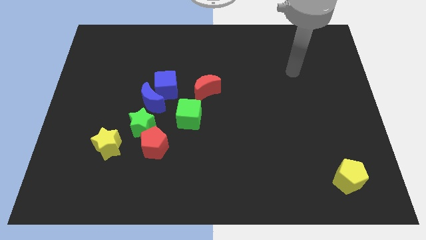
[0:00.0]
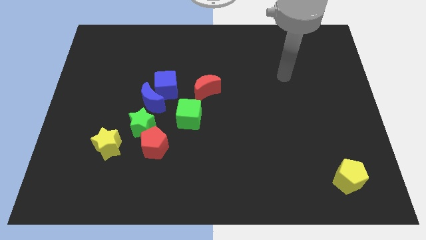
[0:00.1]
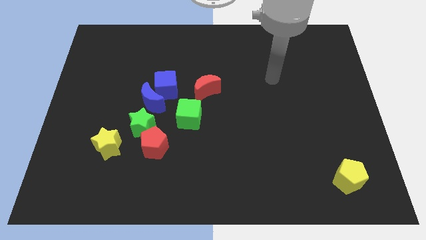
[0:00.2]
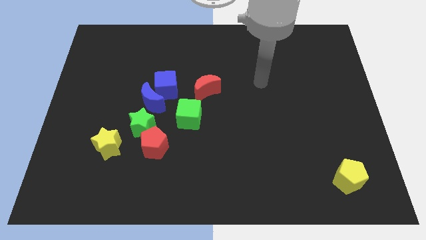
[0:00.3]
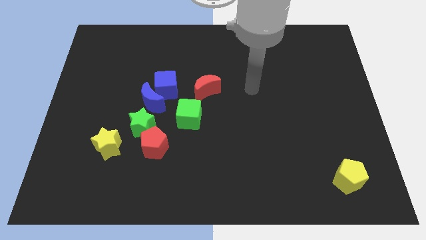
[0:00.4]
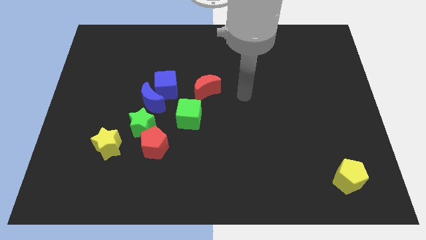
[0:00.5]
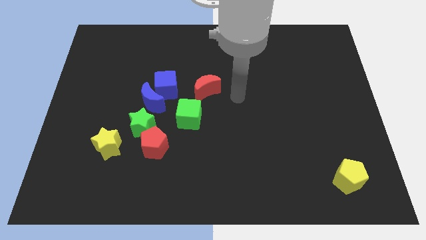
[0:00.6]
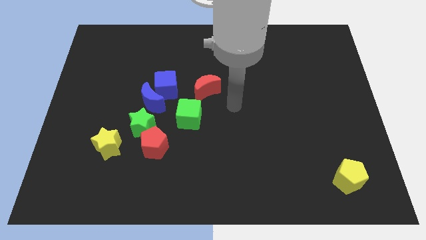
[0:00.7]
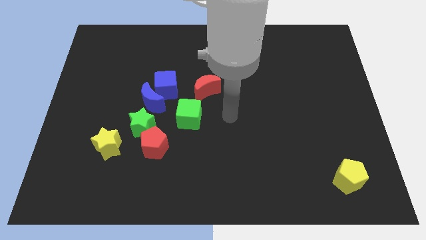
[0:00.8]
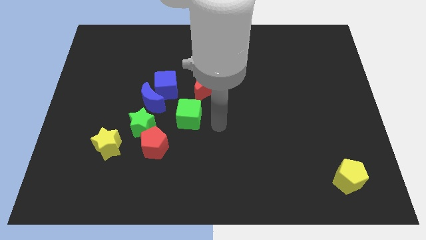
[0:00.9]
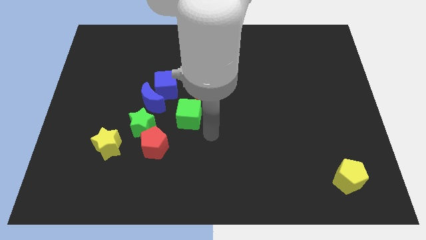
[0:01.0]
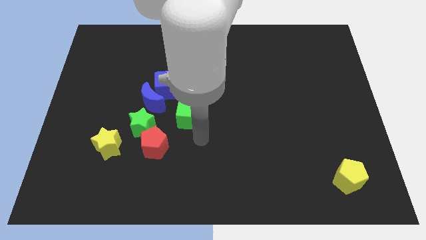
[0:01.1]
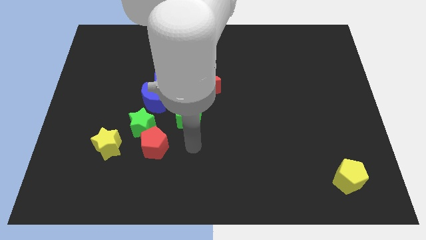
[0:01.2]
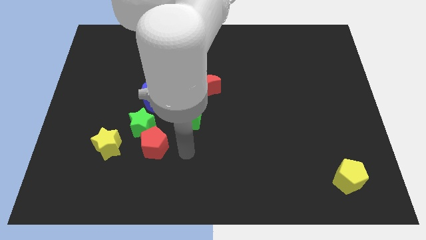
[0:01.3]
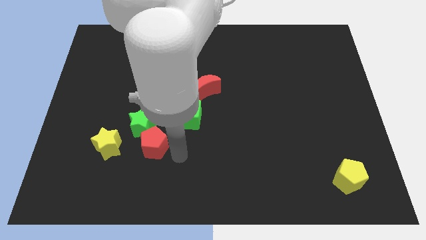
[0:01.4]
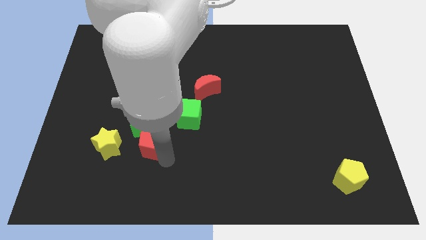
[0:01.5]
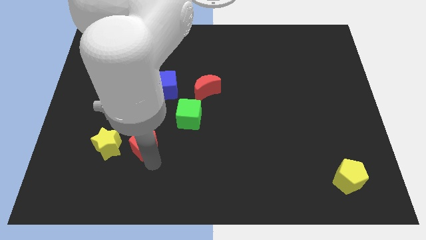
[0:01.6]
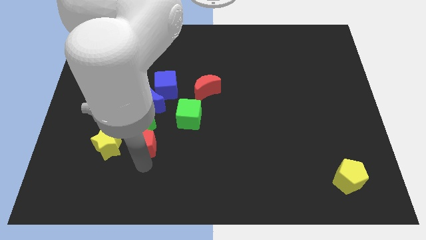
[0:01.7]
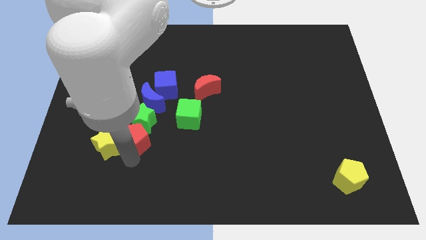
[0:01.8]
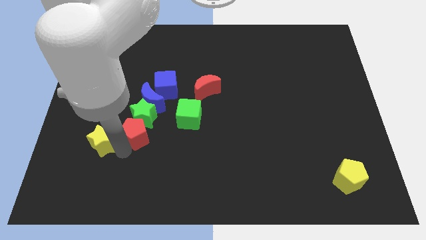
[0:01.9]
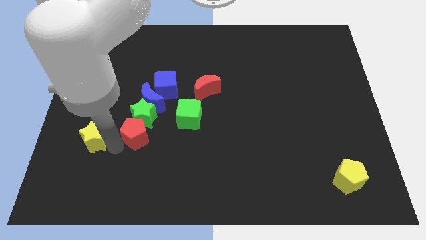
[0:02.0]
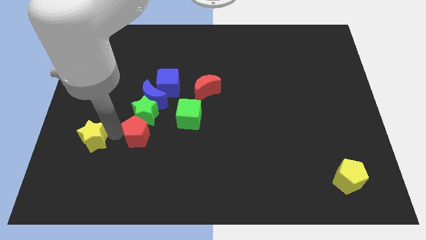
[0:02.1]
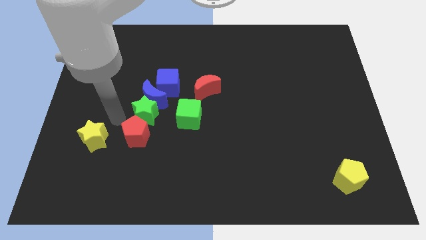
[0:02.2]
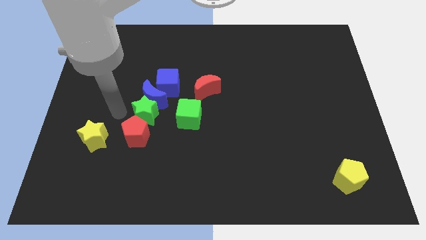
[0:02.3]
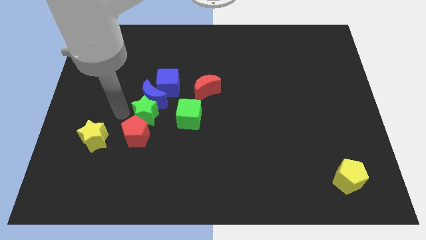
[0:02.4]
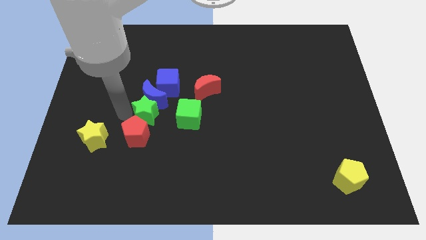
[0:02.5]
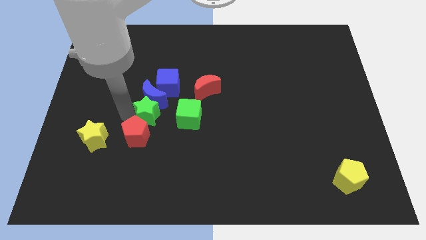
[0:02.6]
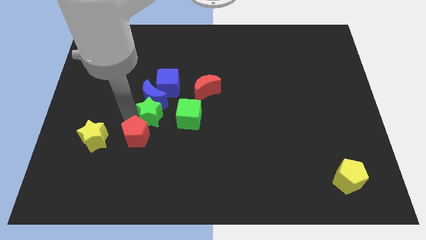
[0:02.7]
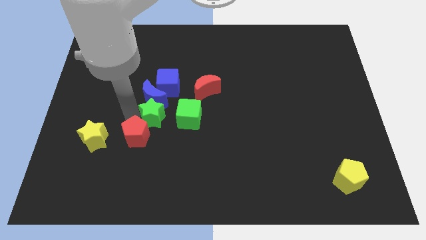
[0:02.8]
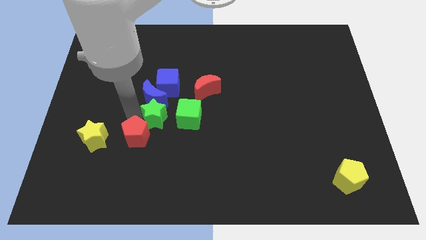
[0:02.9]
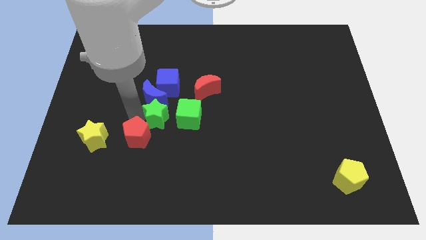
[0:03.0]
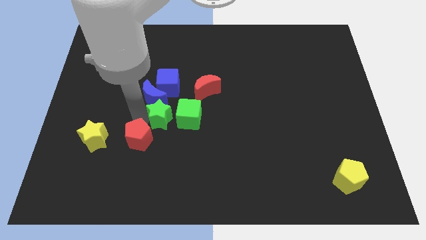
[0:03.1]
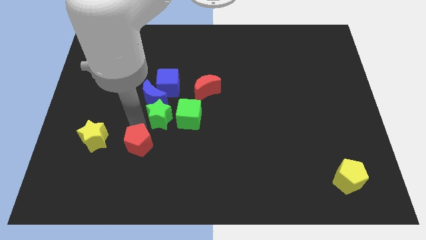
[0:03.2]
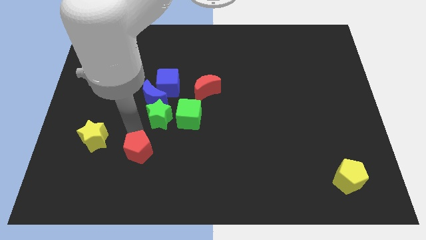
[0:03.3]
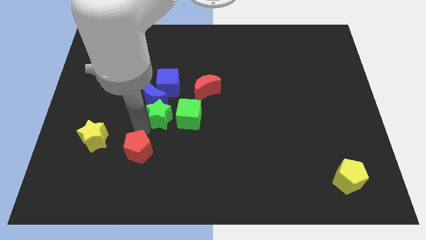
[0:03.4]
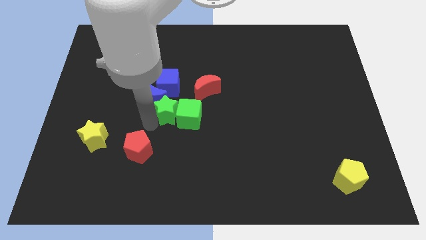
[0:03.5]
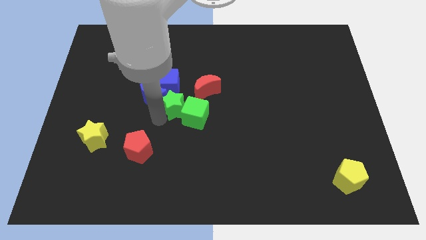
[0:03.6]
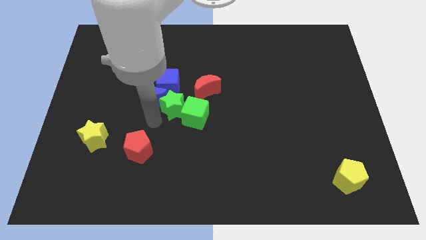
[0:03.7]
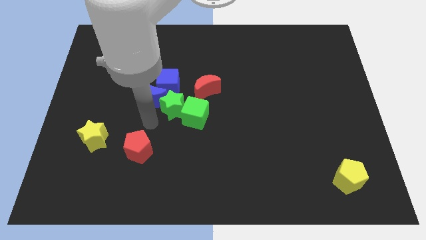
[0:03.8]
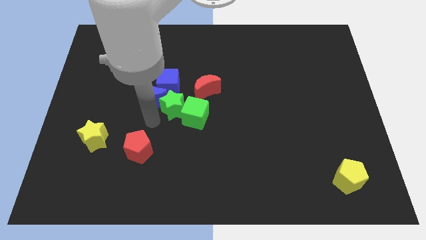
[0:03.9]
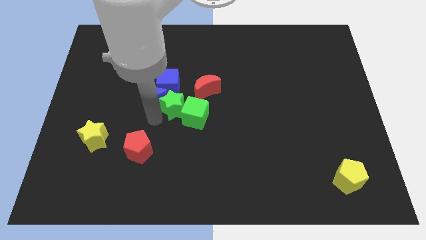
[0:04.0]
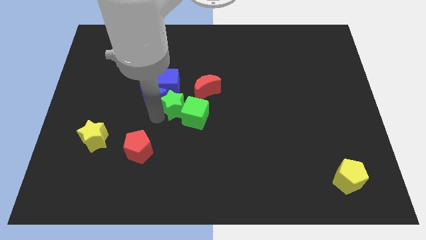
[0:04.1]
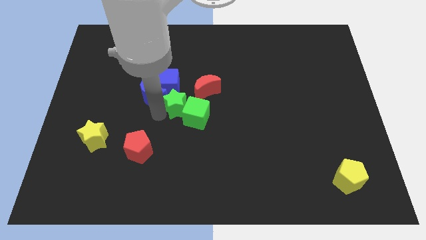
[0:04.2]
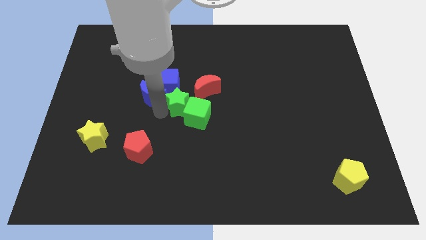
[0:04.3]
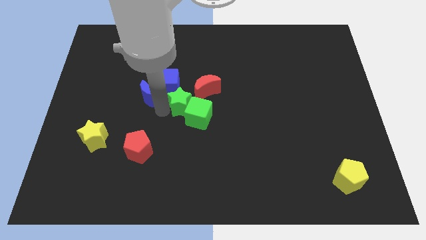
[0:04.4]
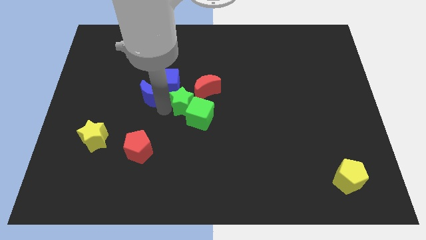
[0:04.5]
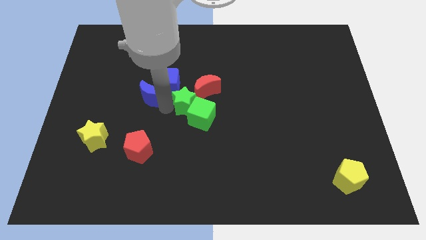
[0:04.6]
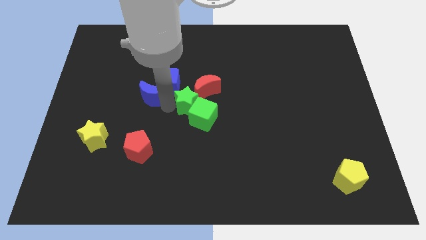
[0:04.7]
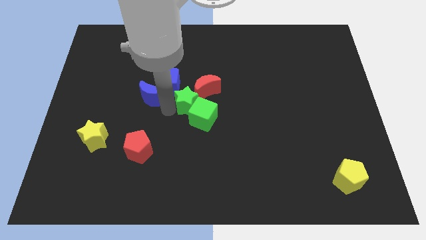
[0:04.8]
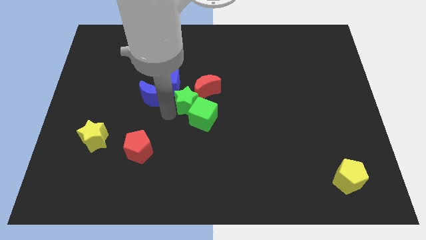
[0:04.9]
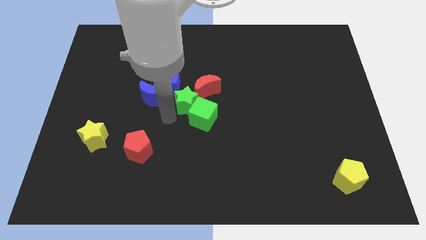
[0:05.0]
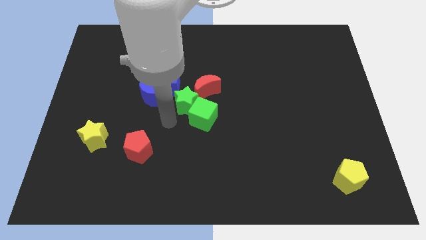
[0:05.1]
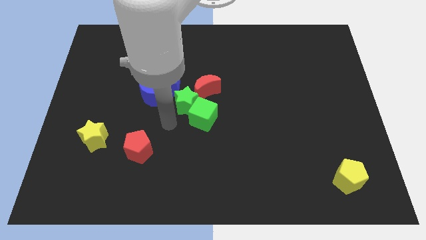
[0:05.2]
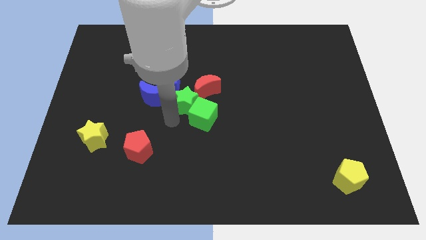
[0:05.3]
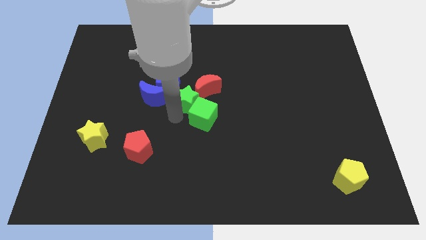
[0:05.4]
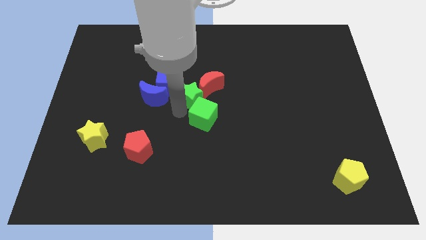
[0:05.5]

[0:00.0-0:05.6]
move the green star to the red moon

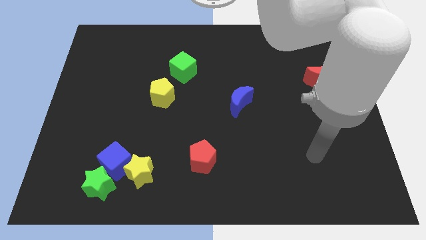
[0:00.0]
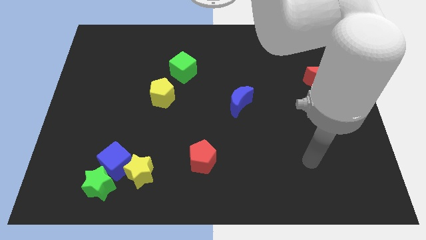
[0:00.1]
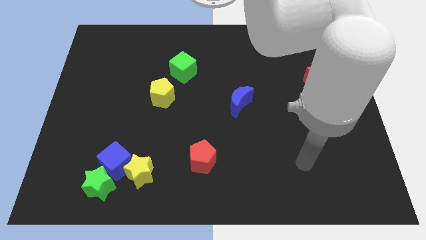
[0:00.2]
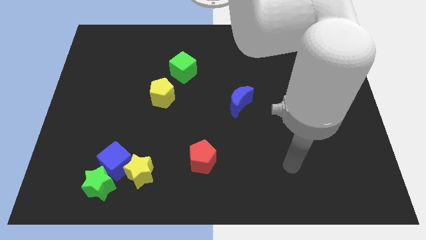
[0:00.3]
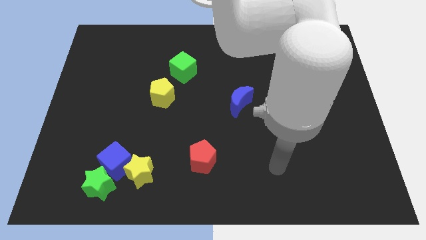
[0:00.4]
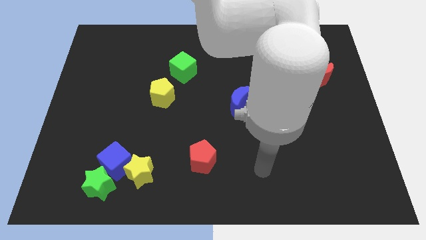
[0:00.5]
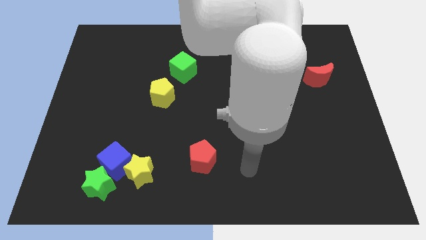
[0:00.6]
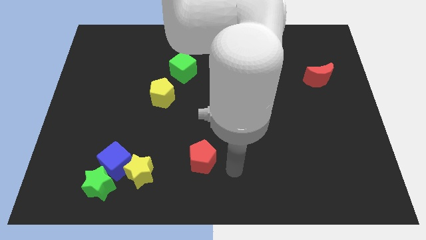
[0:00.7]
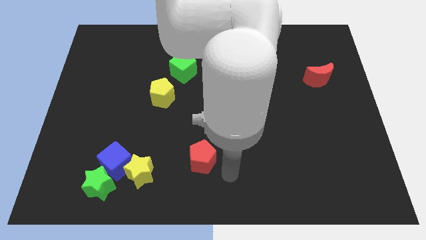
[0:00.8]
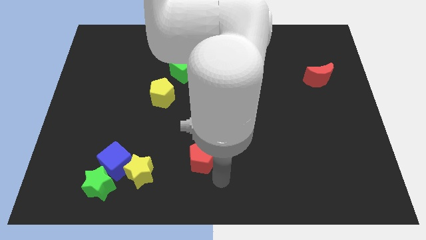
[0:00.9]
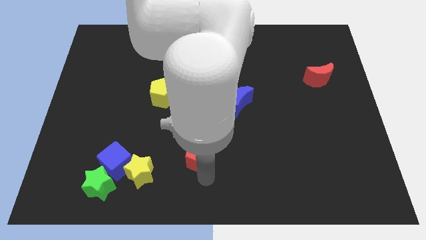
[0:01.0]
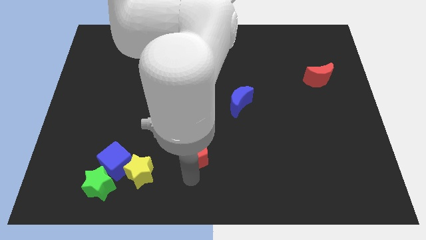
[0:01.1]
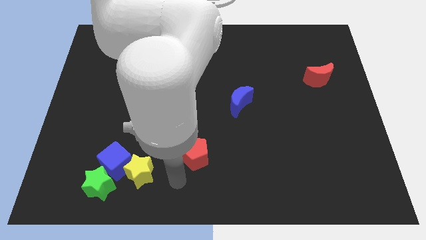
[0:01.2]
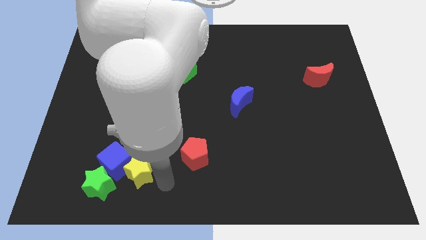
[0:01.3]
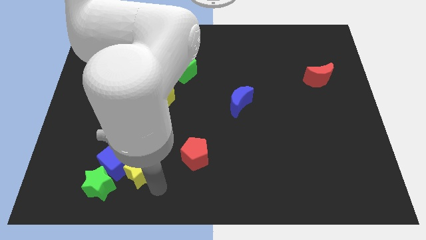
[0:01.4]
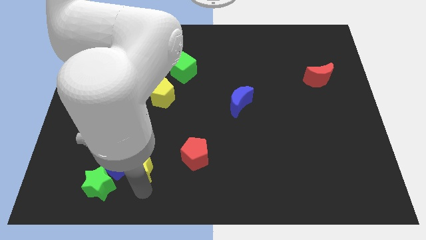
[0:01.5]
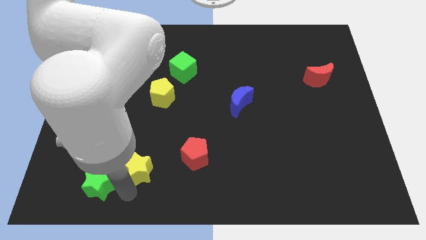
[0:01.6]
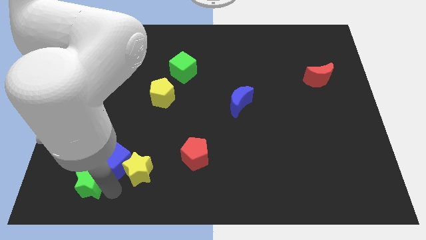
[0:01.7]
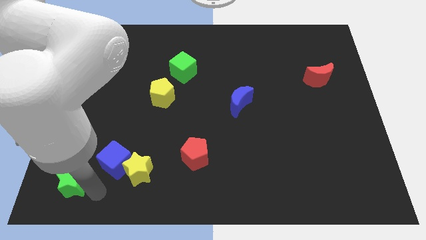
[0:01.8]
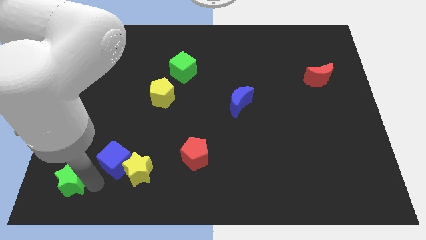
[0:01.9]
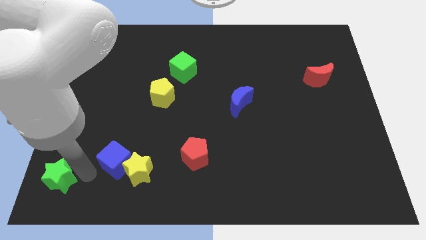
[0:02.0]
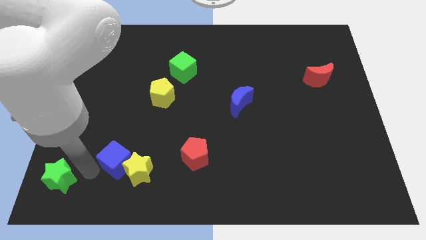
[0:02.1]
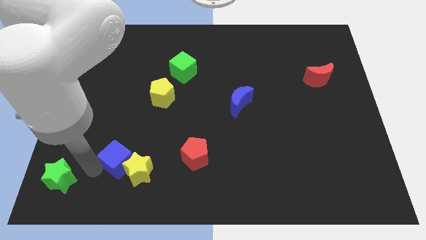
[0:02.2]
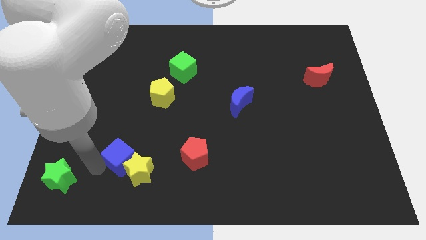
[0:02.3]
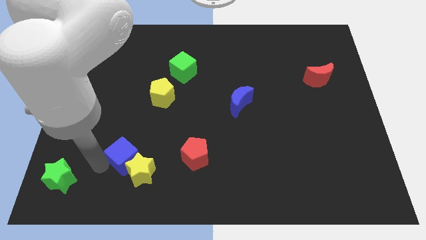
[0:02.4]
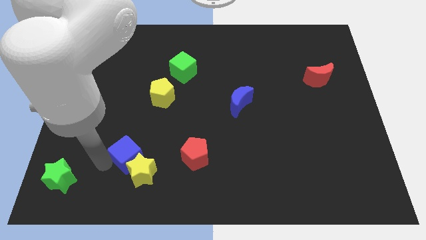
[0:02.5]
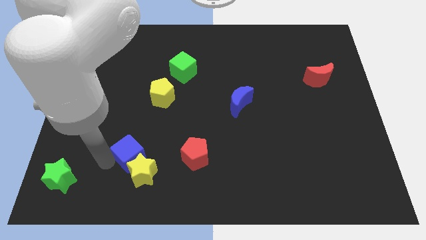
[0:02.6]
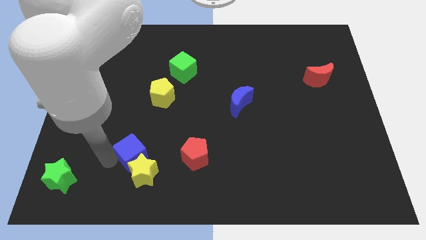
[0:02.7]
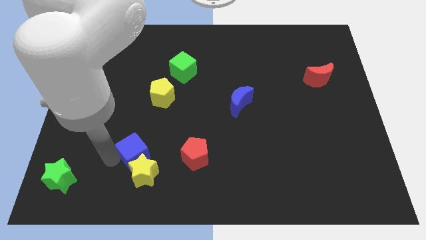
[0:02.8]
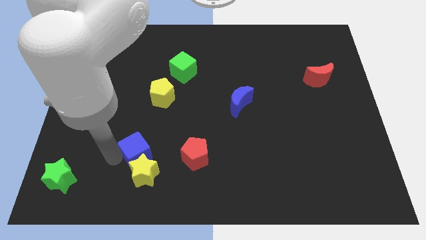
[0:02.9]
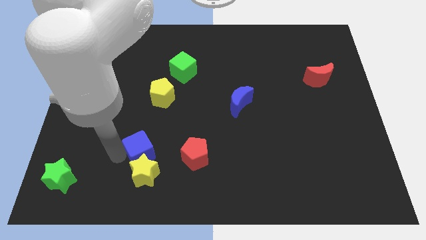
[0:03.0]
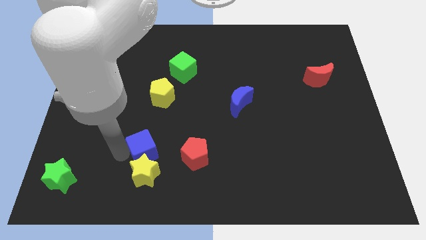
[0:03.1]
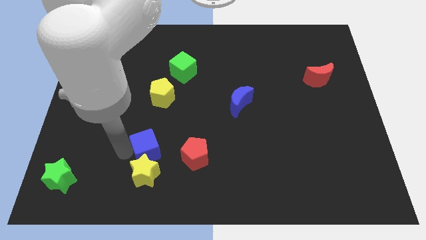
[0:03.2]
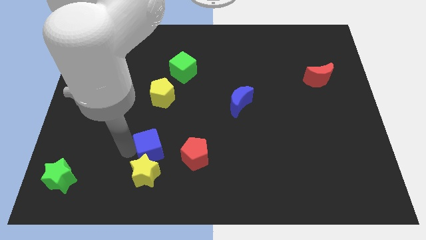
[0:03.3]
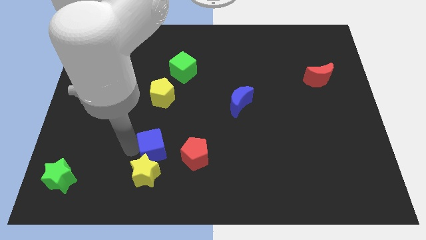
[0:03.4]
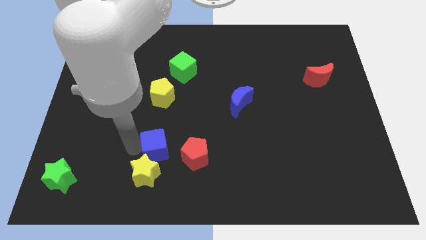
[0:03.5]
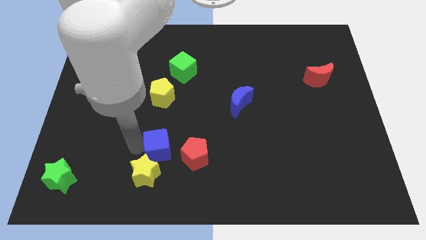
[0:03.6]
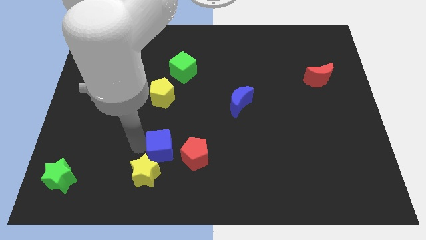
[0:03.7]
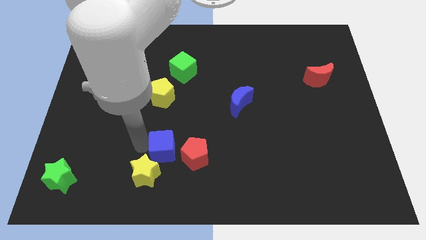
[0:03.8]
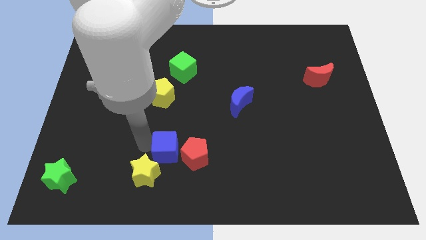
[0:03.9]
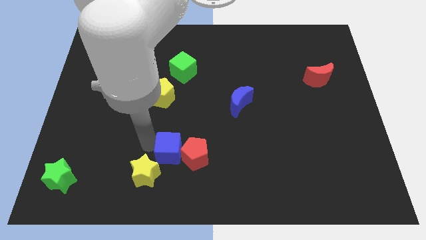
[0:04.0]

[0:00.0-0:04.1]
move the blue cube to the red pentagon
